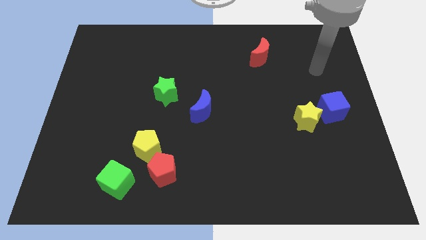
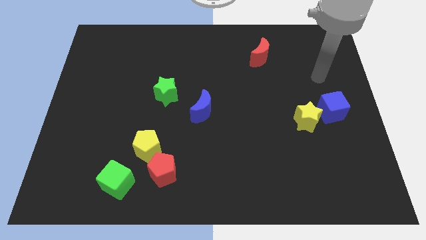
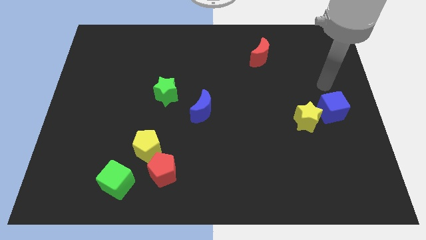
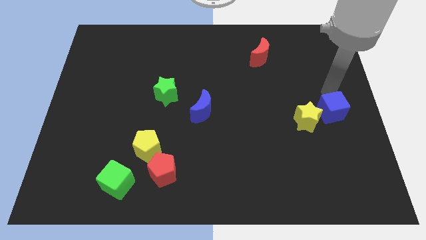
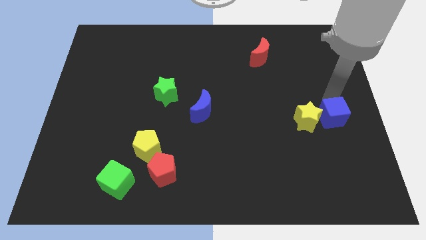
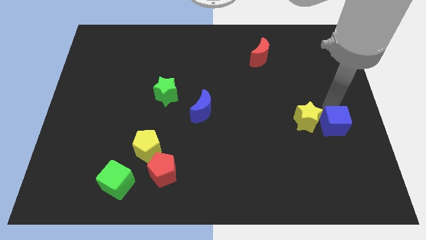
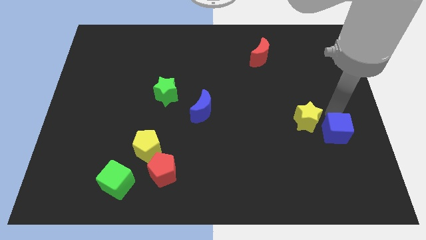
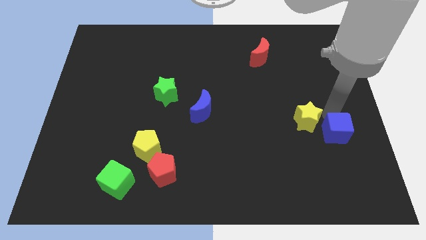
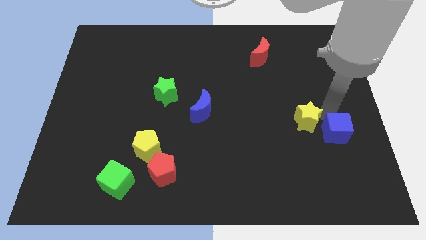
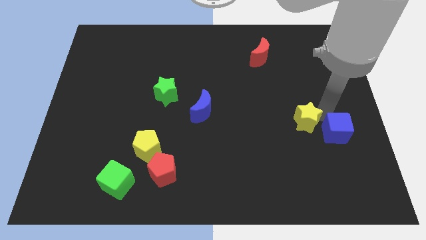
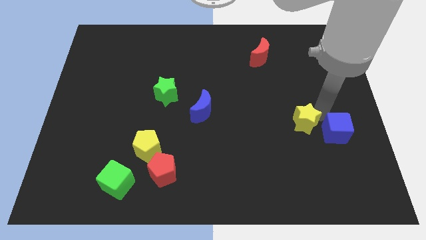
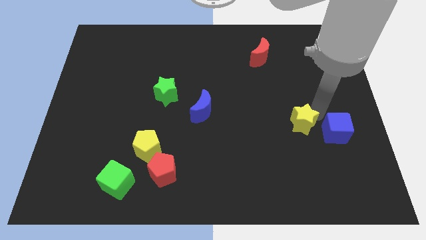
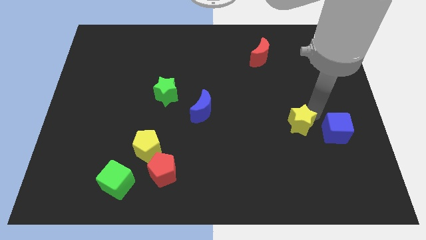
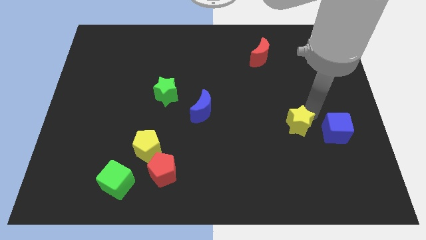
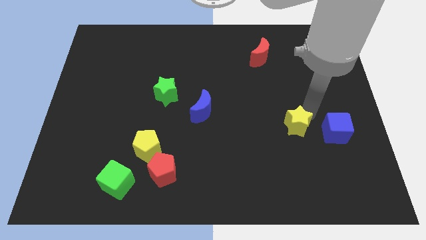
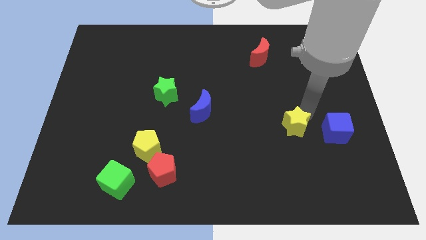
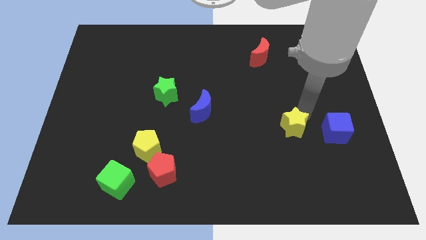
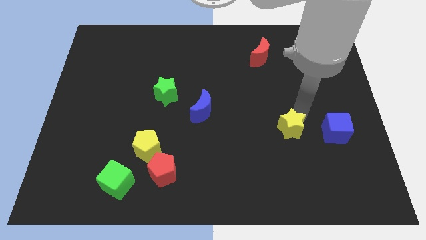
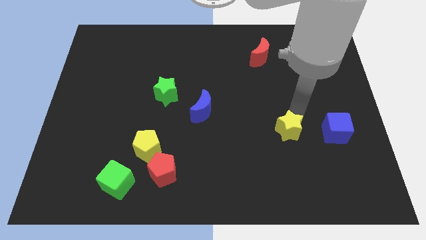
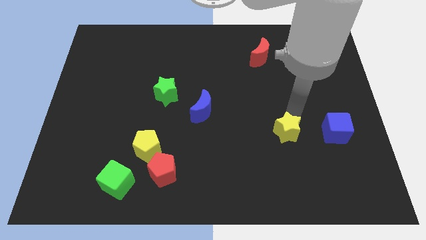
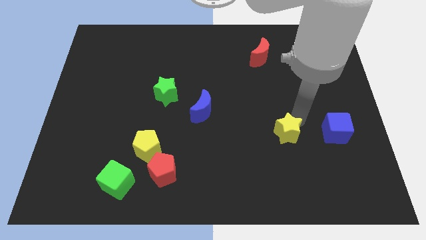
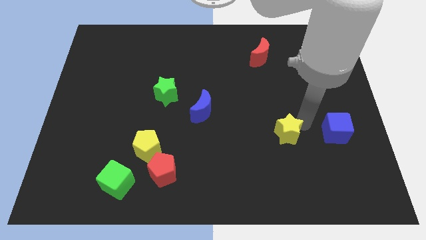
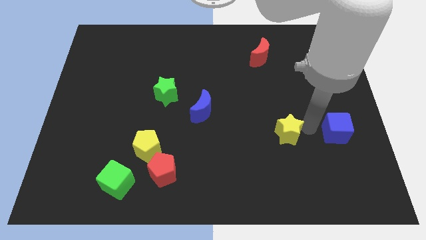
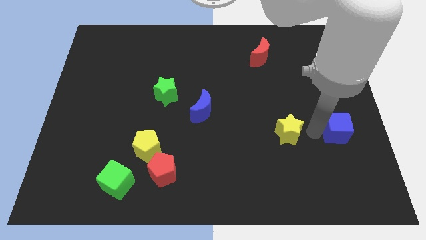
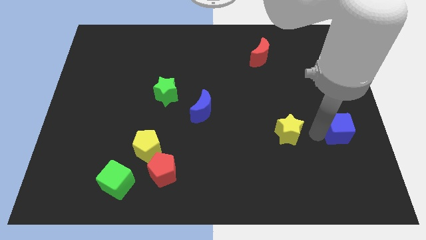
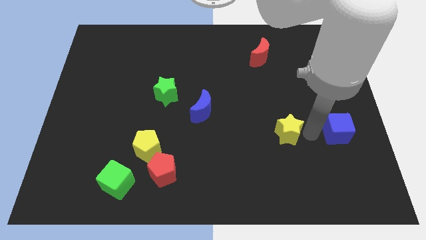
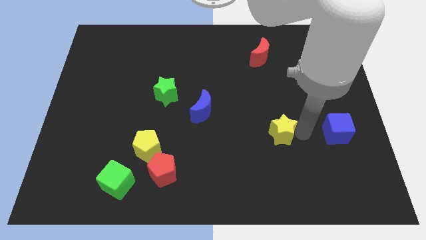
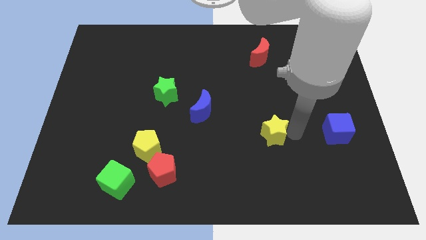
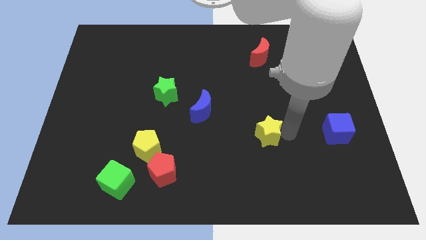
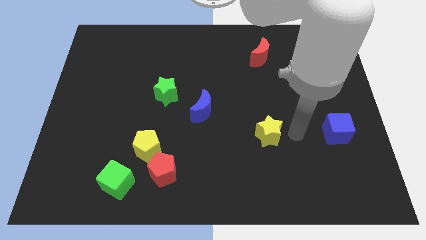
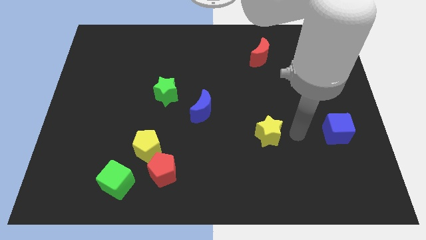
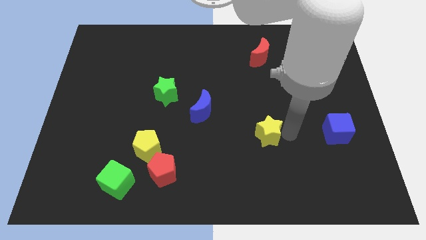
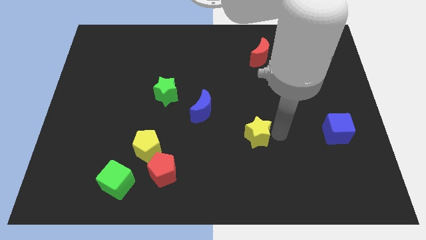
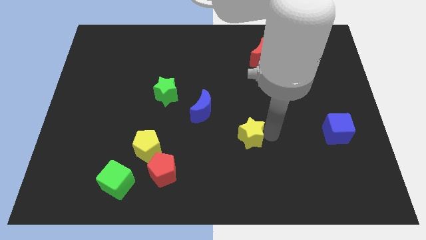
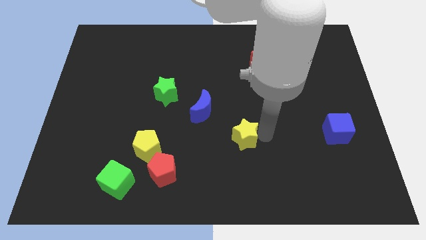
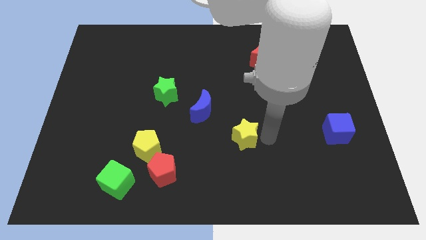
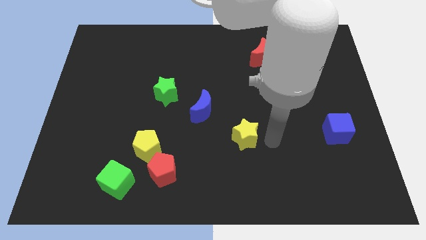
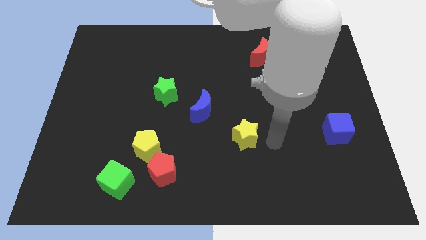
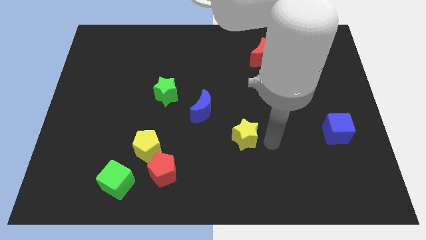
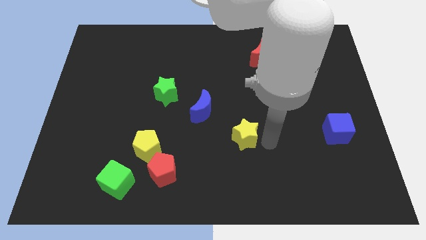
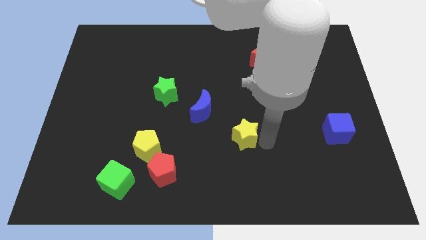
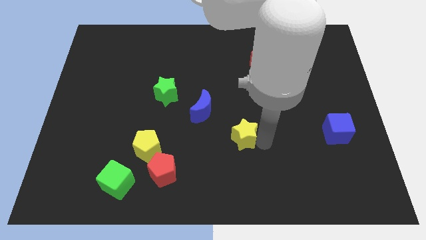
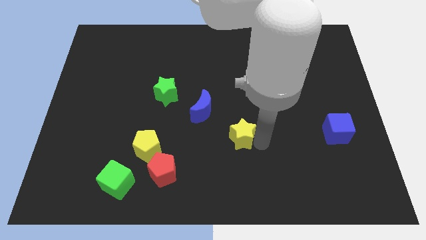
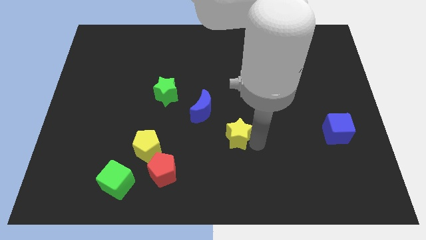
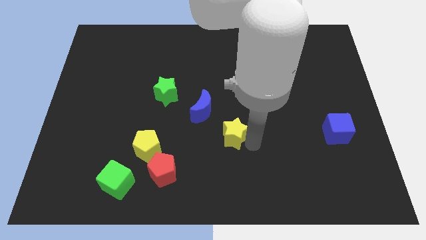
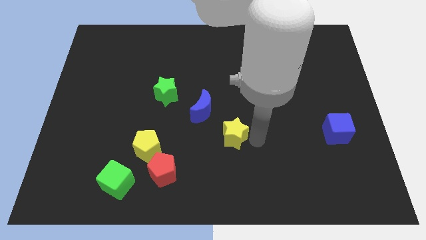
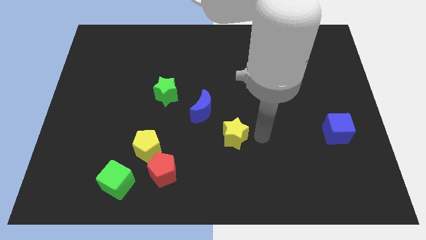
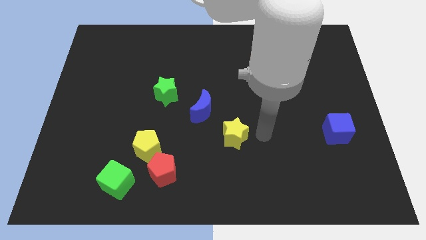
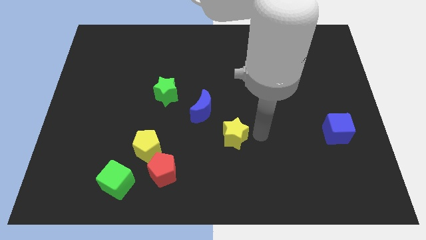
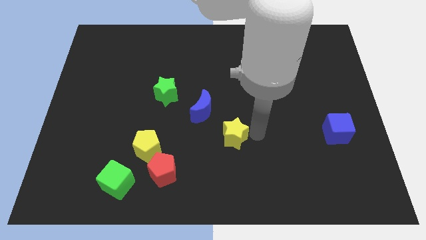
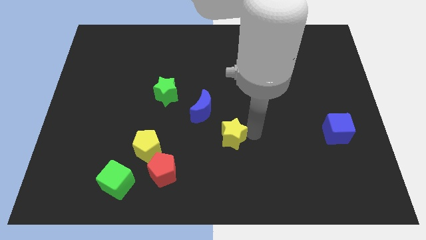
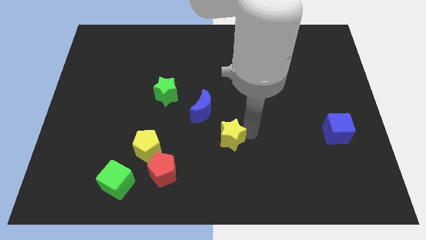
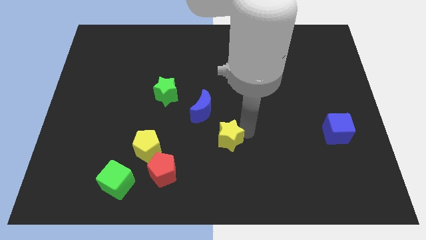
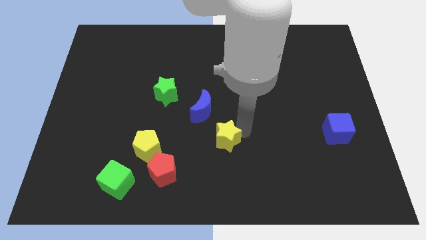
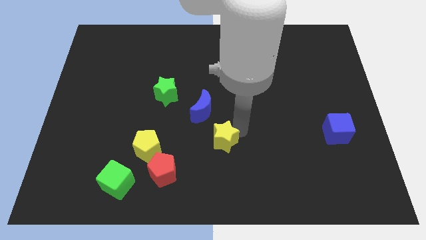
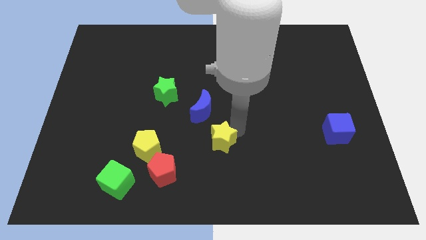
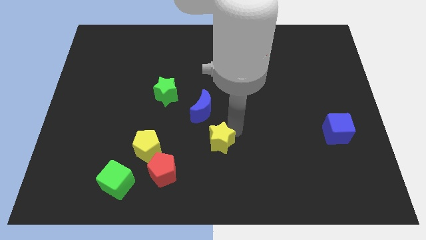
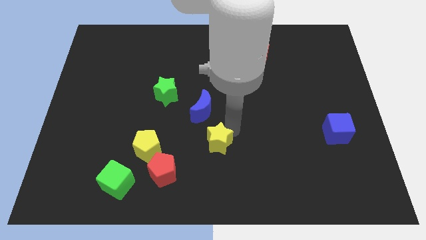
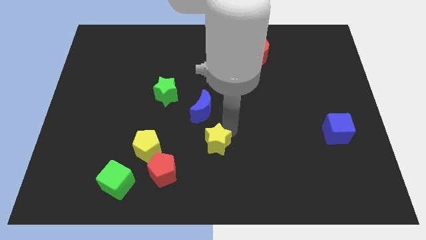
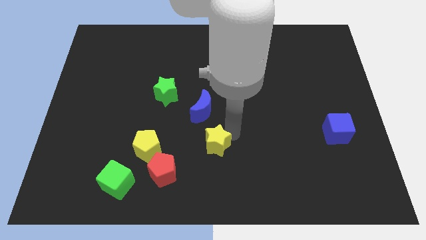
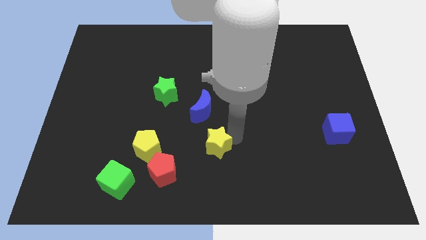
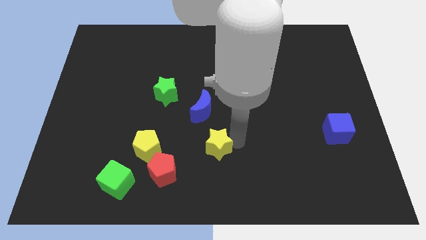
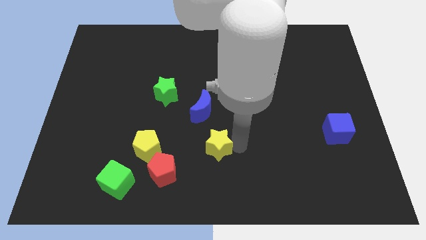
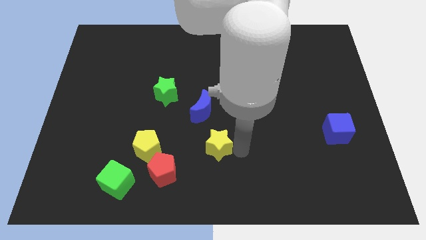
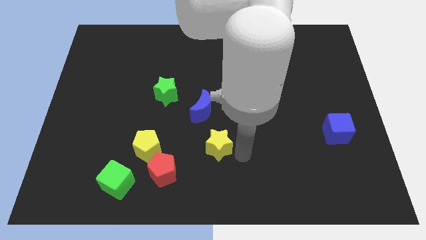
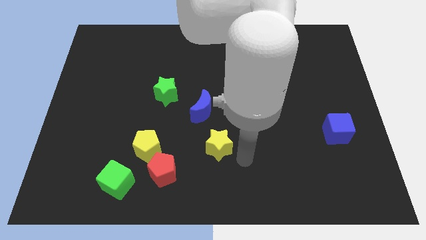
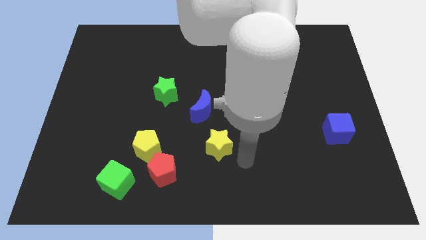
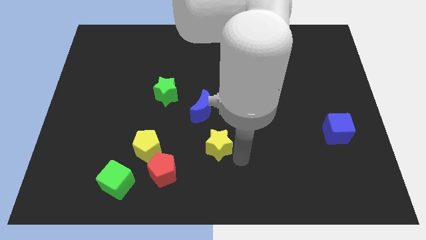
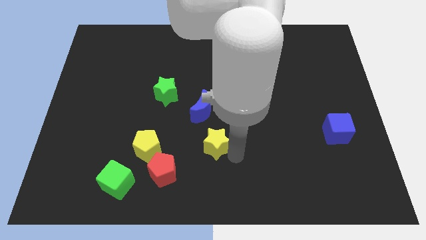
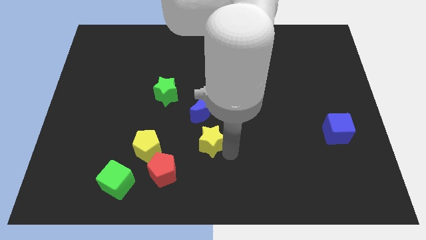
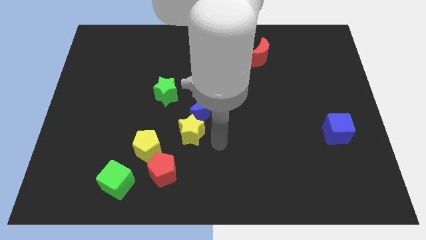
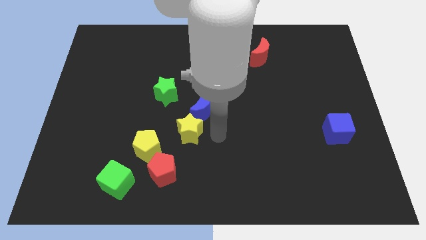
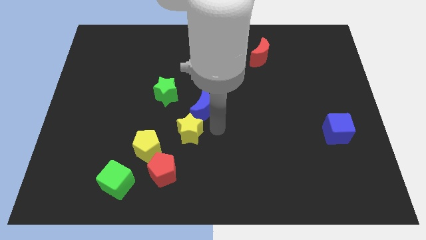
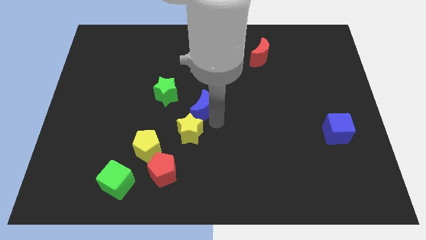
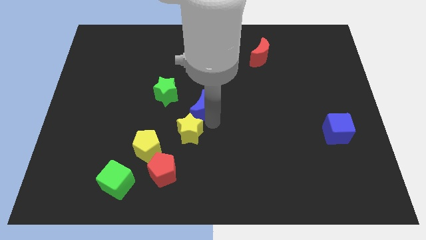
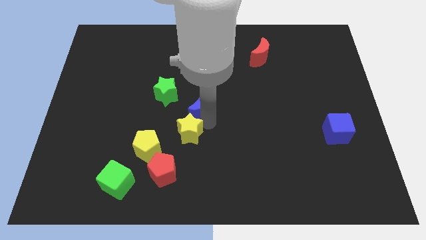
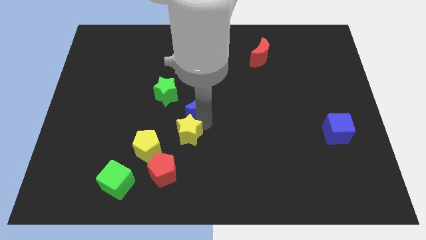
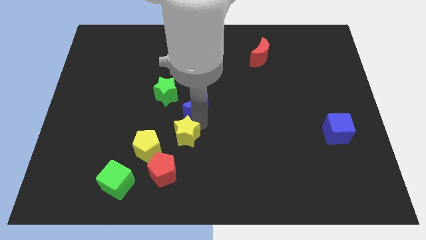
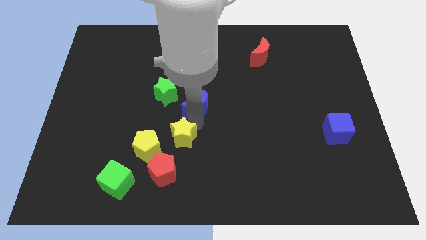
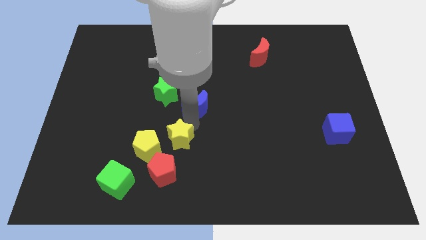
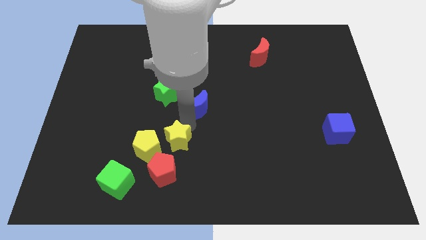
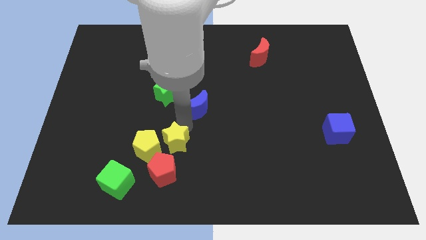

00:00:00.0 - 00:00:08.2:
push the yellow star to the yellow pentagon
